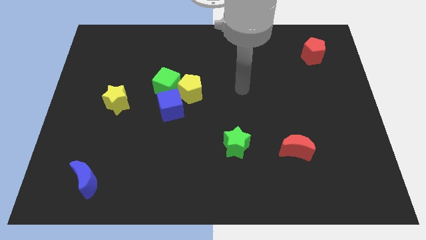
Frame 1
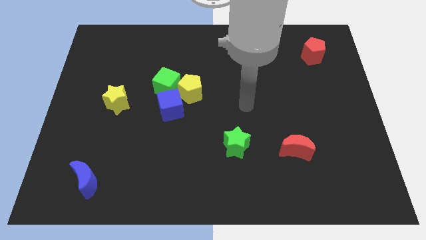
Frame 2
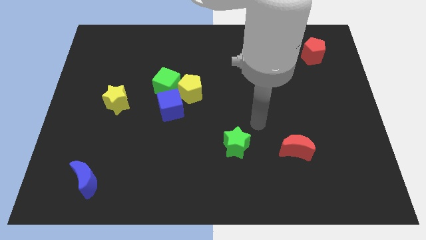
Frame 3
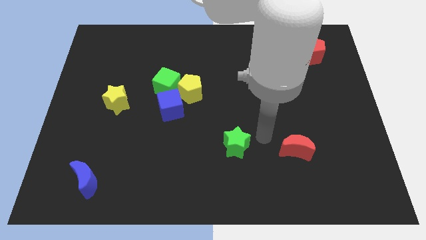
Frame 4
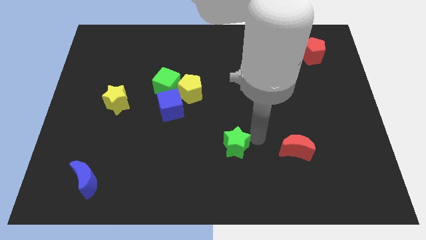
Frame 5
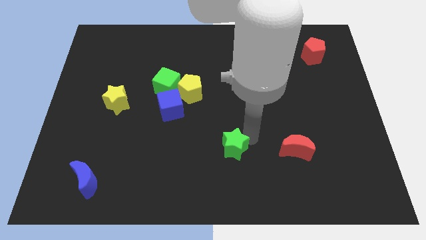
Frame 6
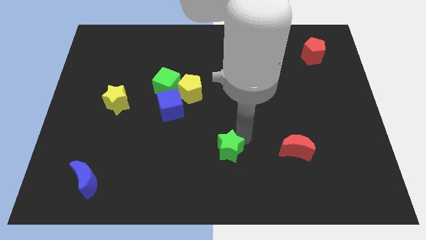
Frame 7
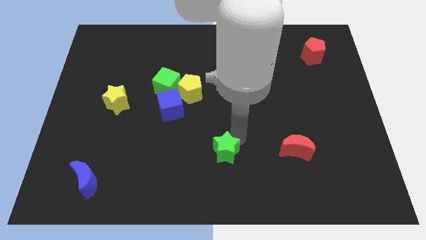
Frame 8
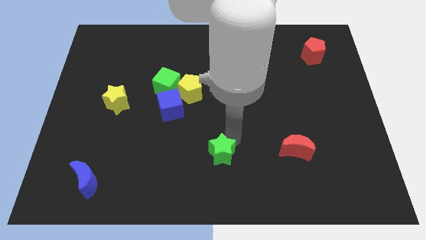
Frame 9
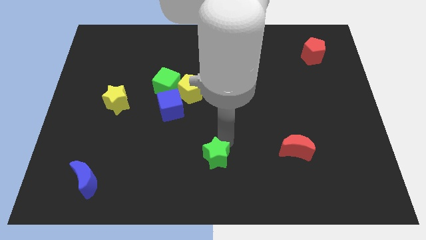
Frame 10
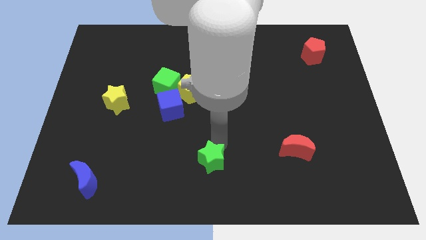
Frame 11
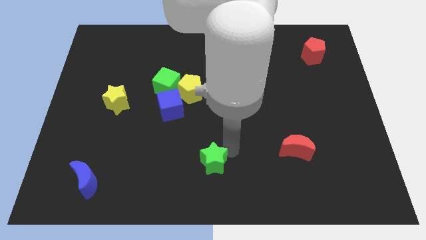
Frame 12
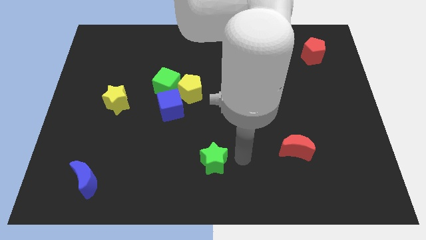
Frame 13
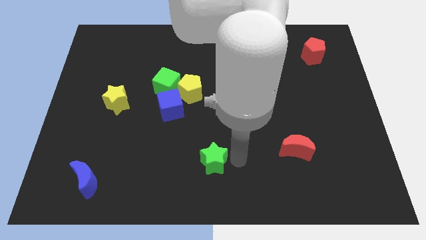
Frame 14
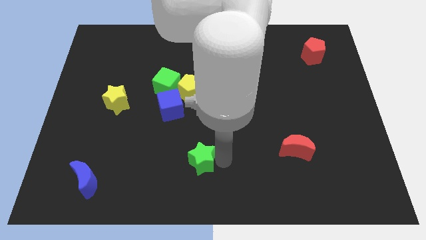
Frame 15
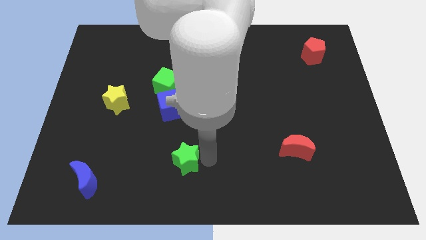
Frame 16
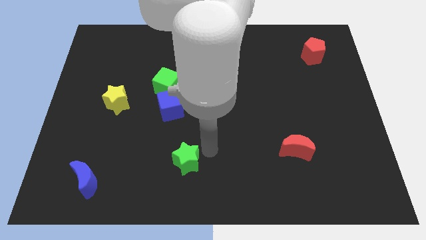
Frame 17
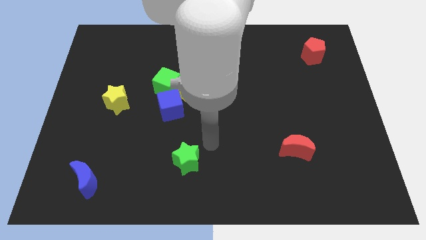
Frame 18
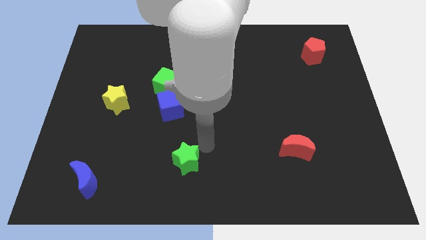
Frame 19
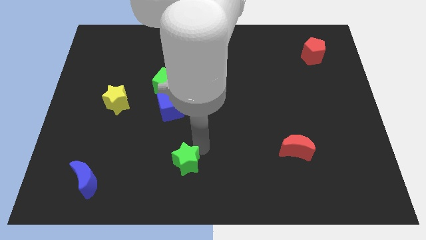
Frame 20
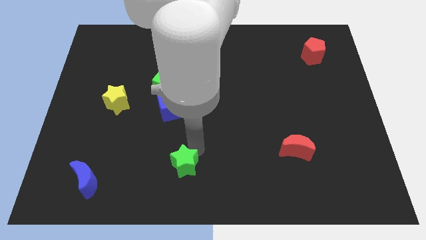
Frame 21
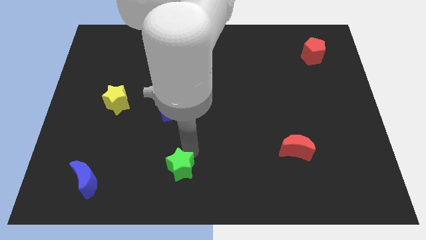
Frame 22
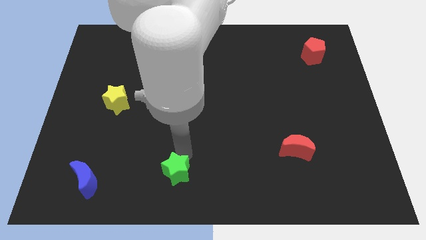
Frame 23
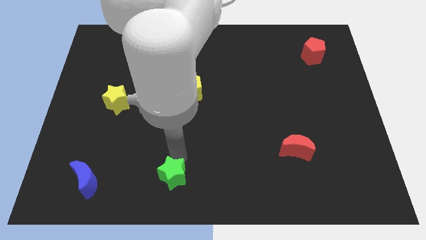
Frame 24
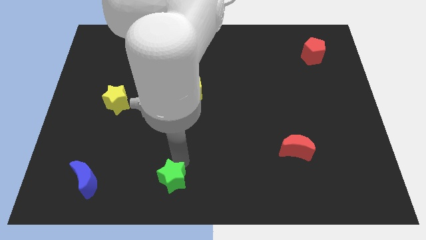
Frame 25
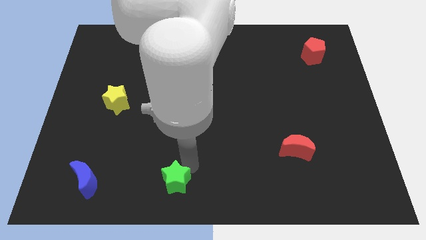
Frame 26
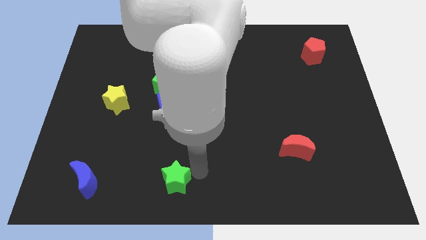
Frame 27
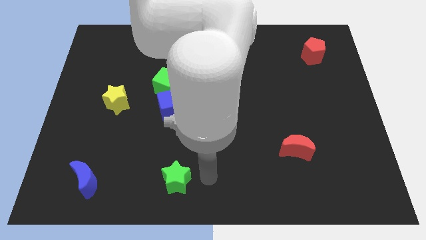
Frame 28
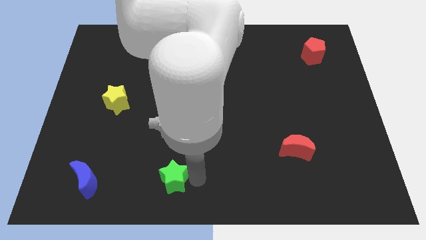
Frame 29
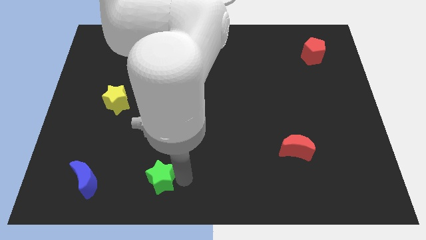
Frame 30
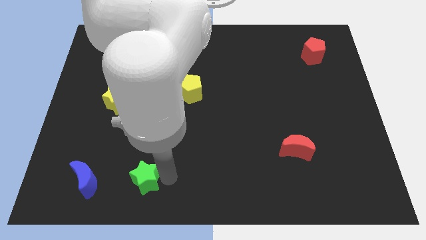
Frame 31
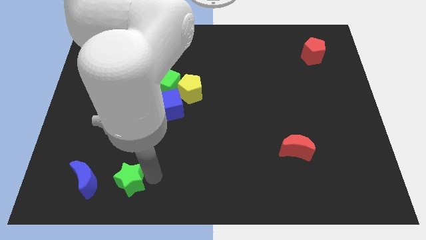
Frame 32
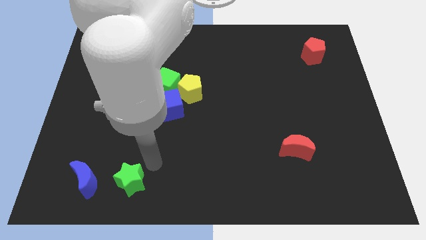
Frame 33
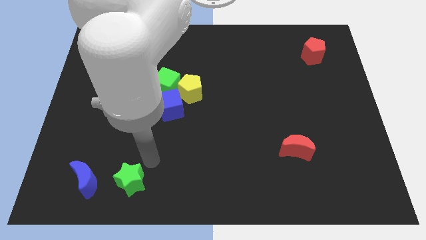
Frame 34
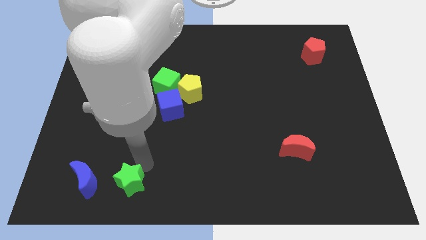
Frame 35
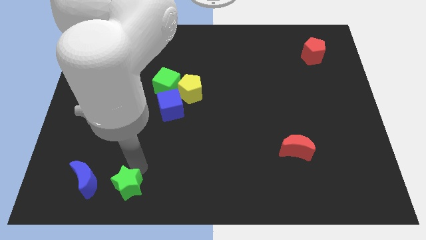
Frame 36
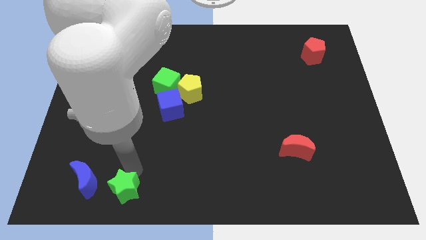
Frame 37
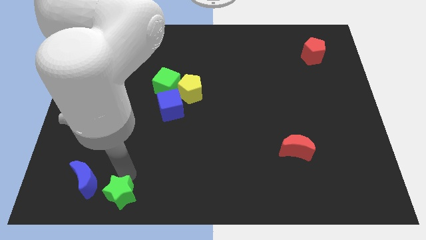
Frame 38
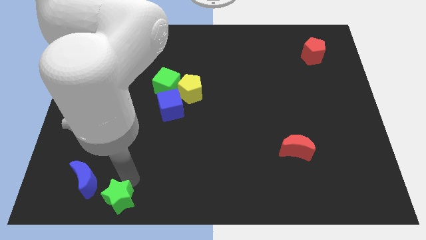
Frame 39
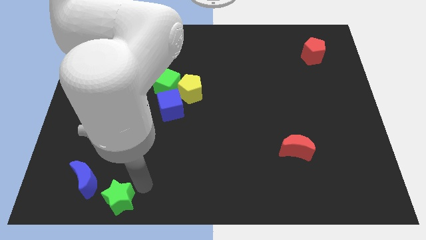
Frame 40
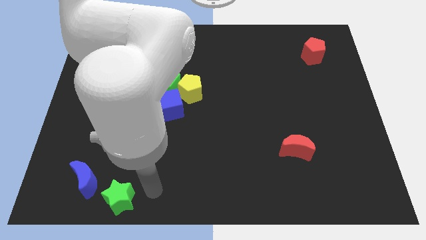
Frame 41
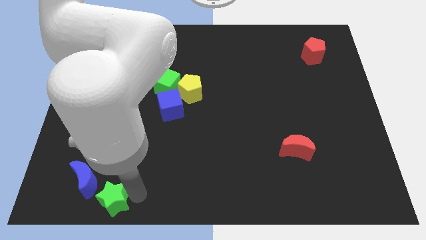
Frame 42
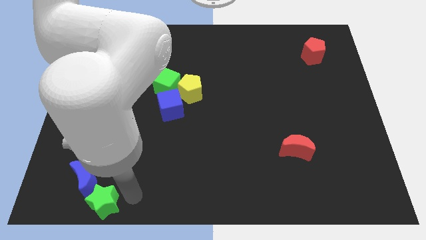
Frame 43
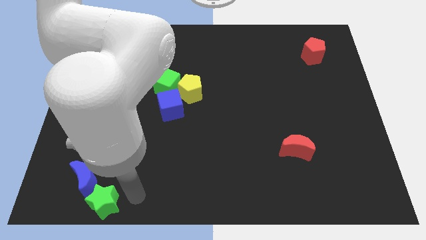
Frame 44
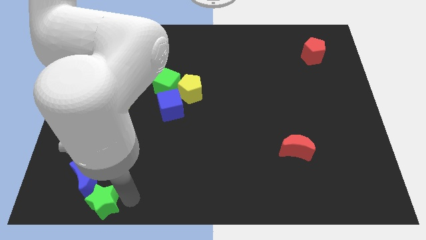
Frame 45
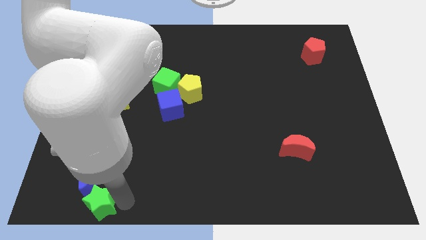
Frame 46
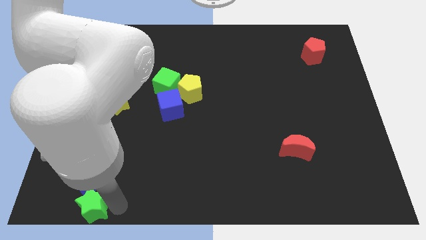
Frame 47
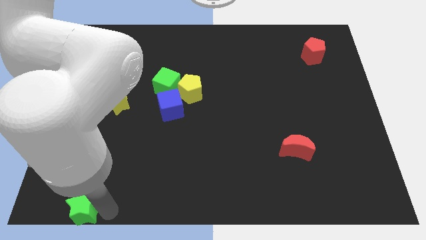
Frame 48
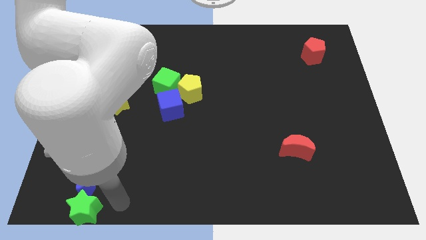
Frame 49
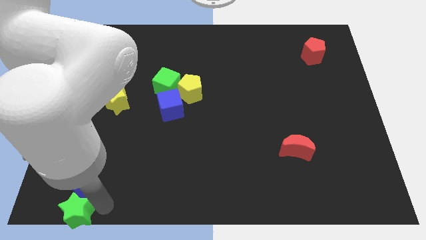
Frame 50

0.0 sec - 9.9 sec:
slide the green star to the lower left corner

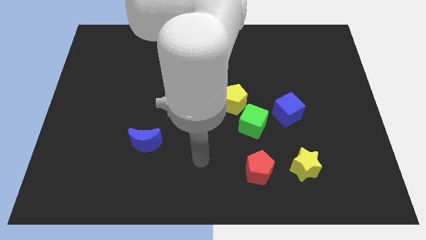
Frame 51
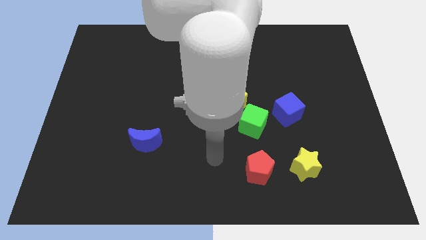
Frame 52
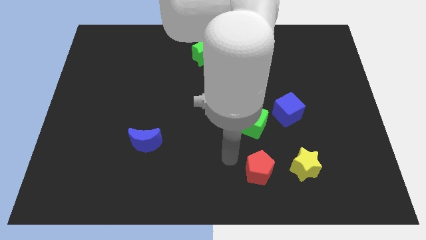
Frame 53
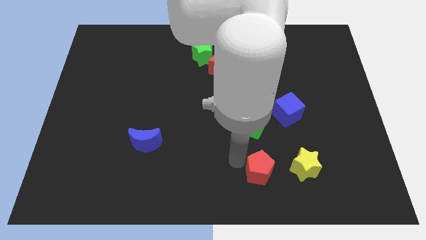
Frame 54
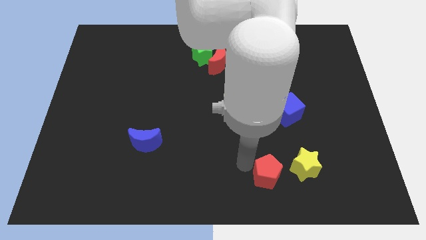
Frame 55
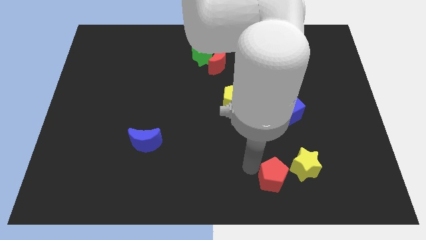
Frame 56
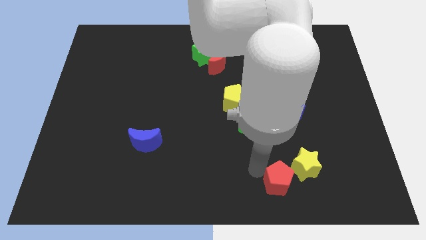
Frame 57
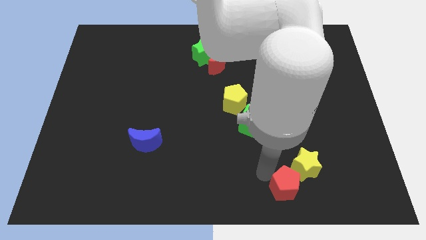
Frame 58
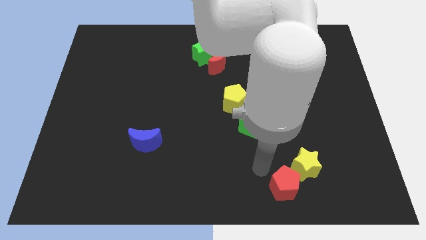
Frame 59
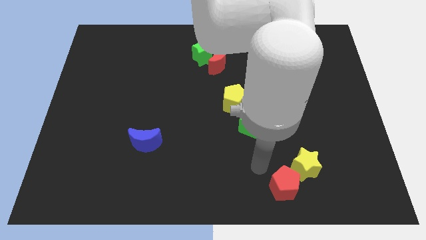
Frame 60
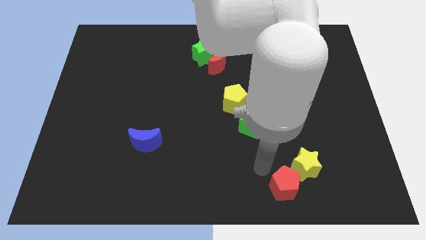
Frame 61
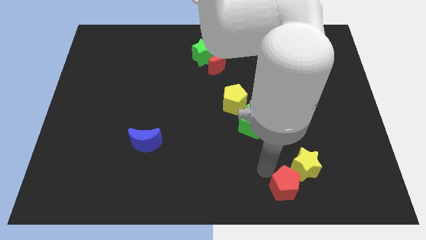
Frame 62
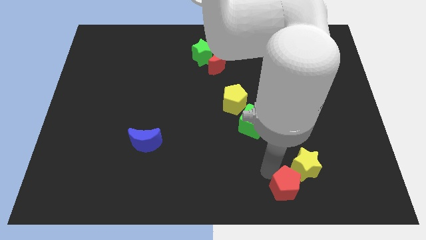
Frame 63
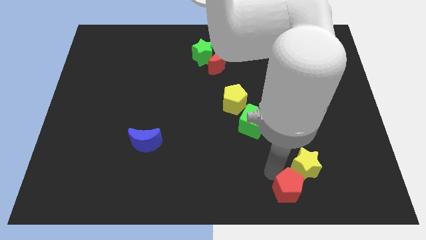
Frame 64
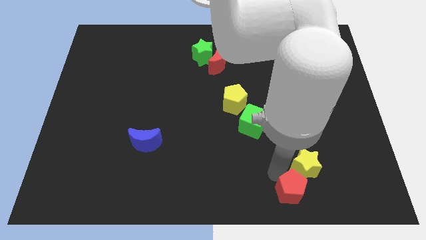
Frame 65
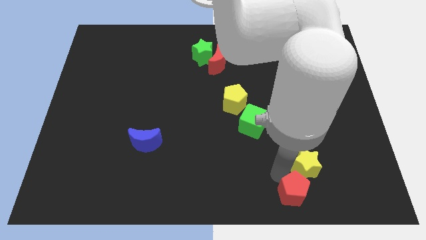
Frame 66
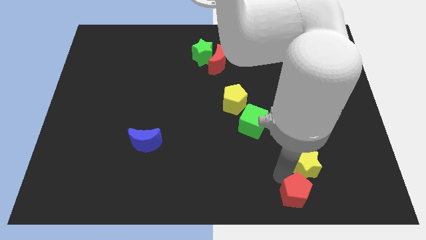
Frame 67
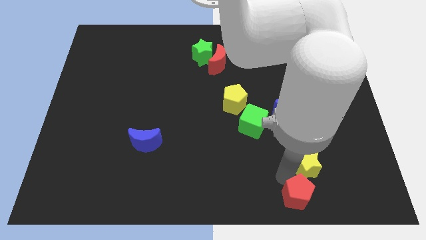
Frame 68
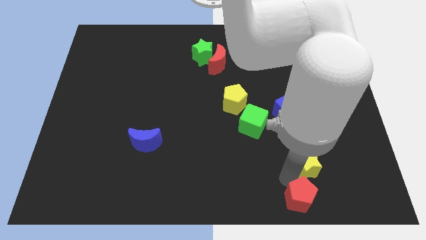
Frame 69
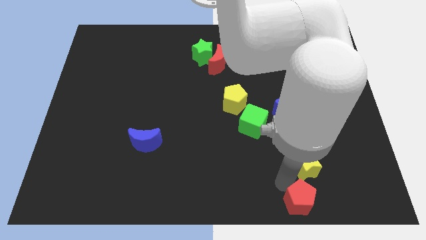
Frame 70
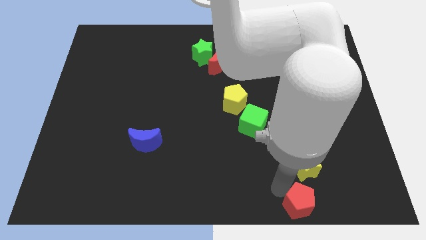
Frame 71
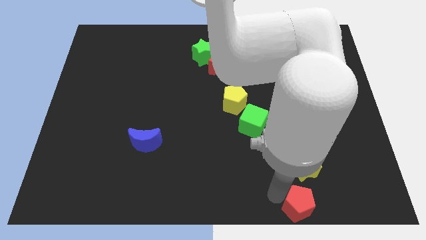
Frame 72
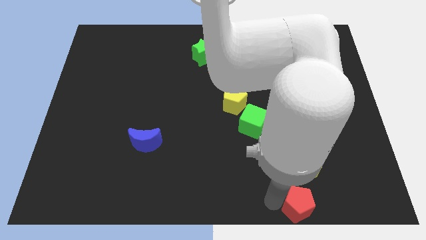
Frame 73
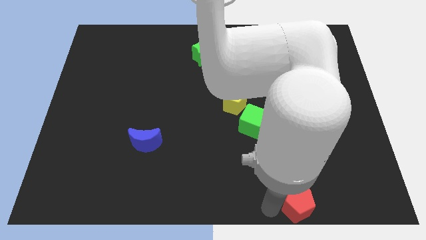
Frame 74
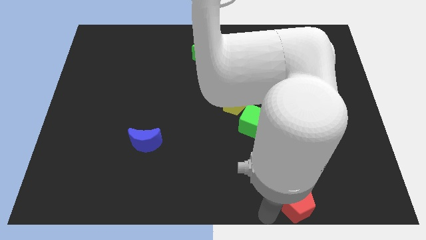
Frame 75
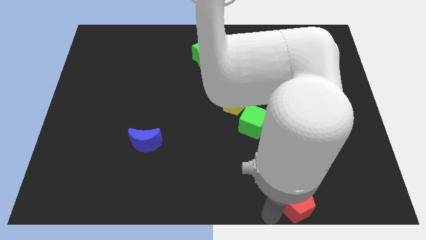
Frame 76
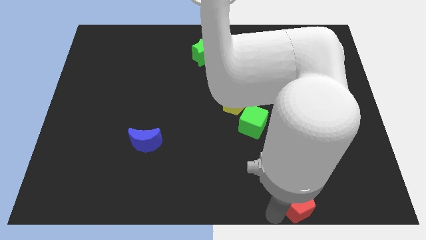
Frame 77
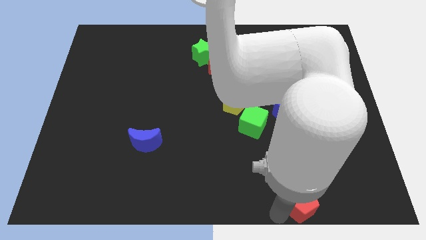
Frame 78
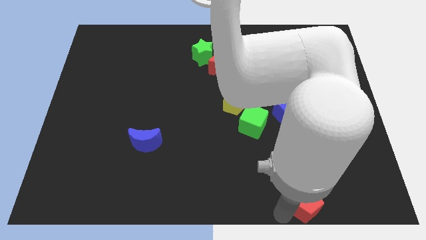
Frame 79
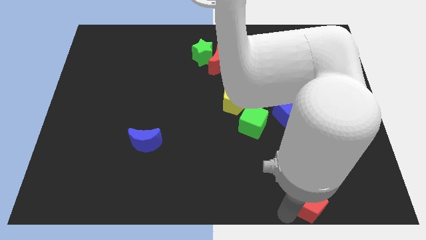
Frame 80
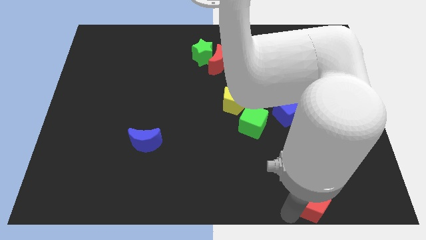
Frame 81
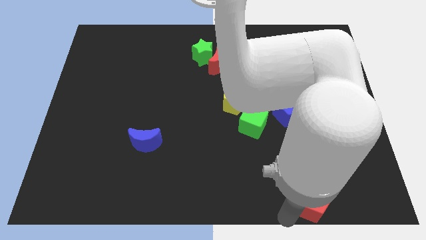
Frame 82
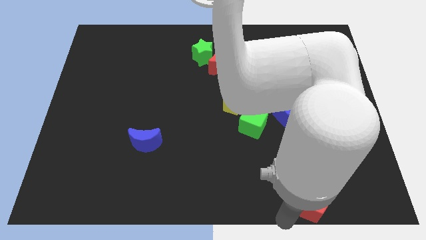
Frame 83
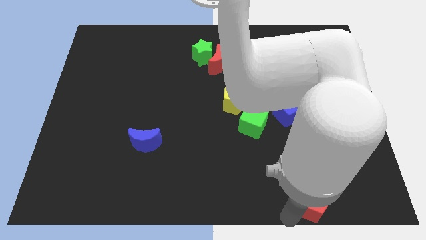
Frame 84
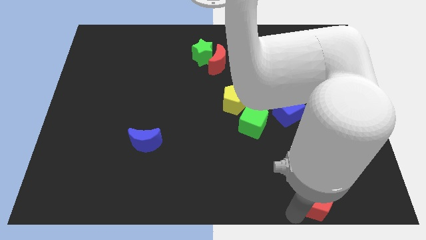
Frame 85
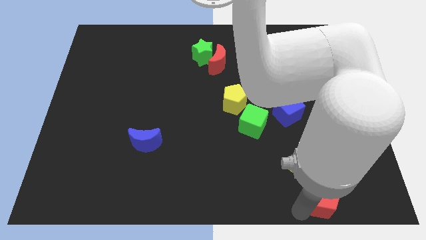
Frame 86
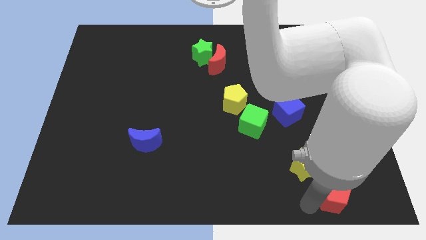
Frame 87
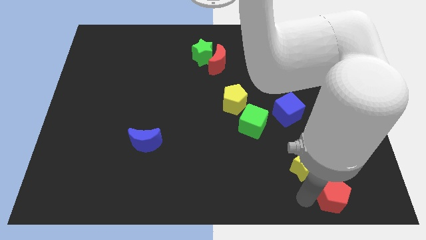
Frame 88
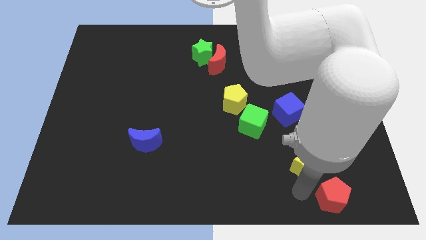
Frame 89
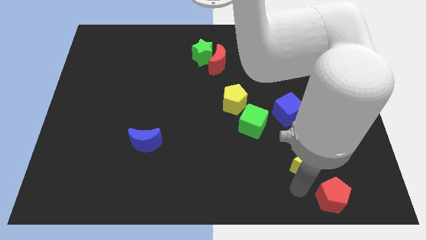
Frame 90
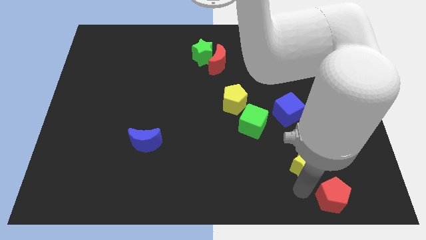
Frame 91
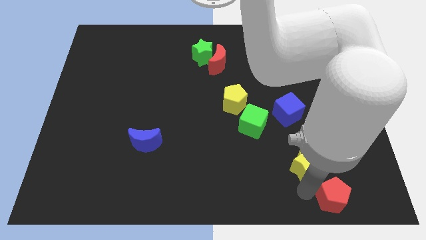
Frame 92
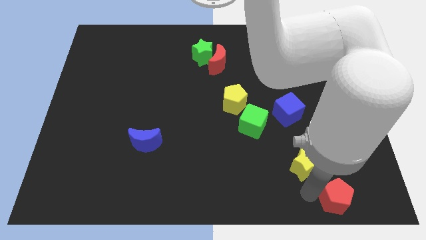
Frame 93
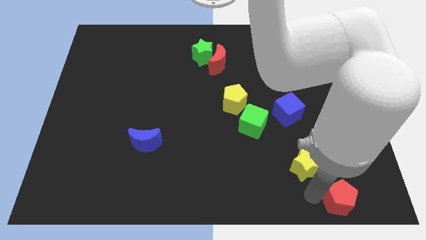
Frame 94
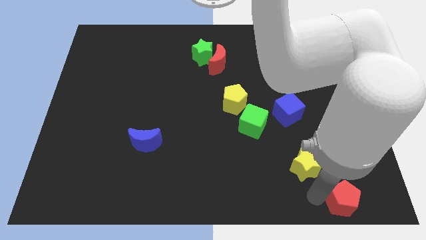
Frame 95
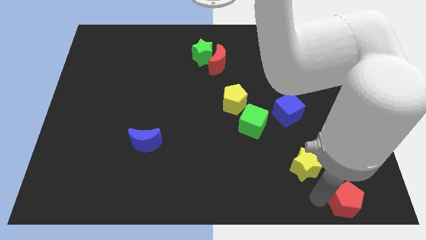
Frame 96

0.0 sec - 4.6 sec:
put the red pentagon to the bottom right corner
